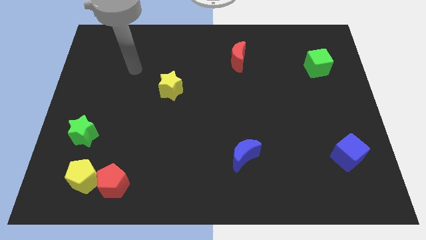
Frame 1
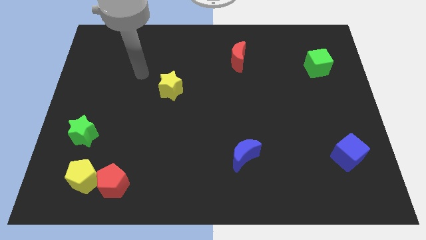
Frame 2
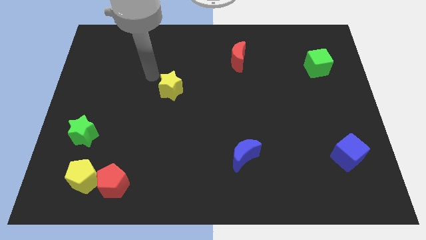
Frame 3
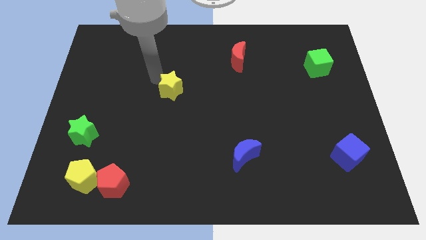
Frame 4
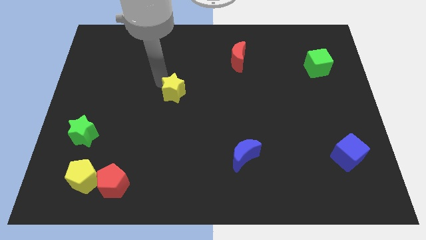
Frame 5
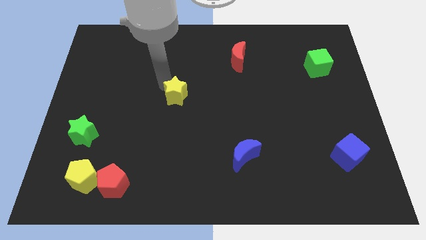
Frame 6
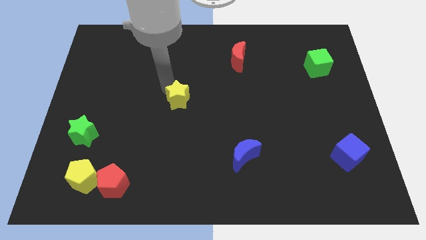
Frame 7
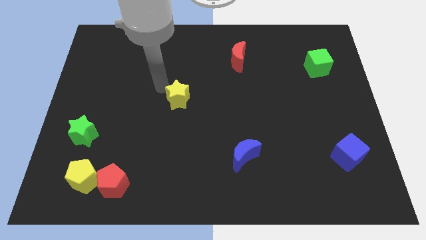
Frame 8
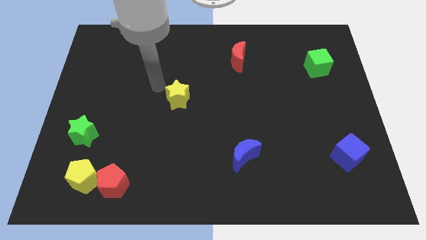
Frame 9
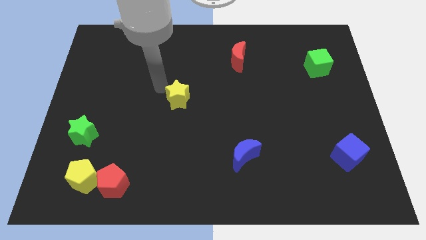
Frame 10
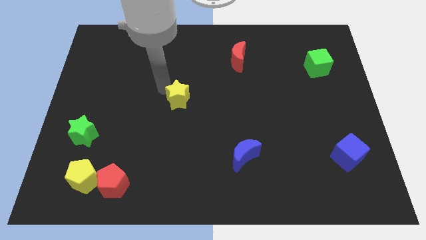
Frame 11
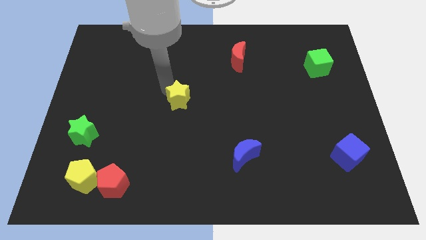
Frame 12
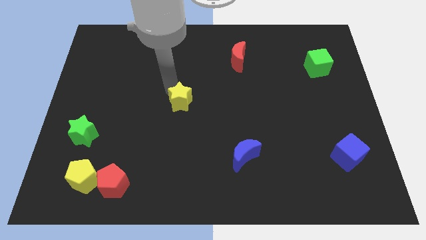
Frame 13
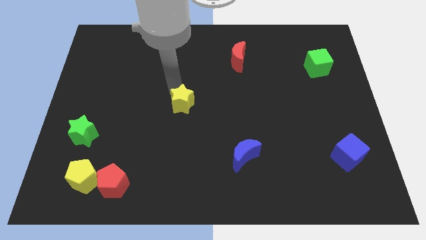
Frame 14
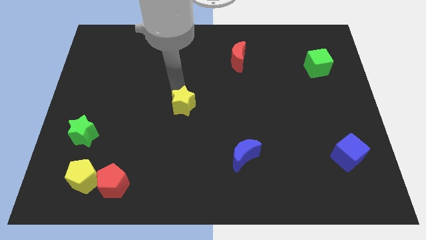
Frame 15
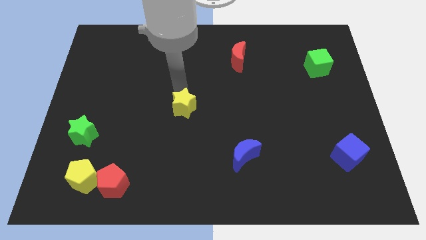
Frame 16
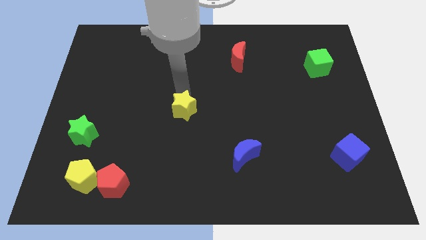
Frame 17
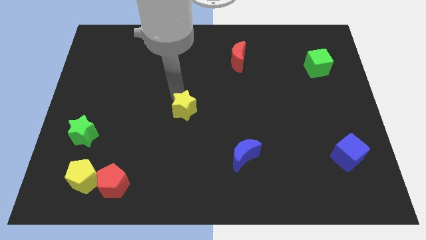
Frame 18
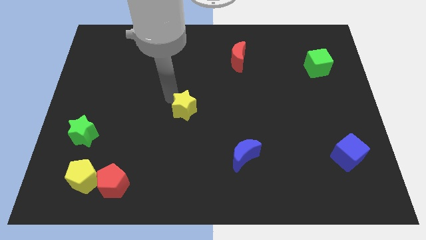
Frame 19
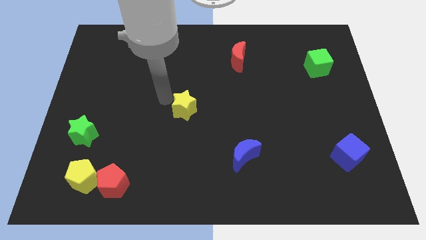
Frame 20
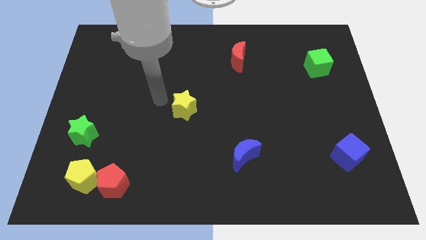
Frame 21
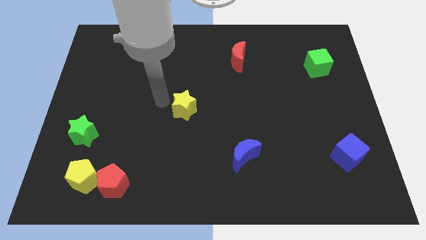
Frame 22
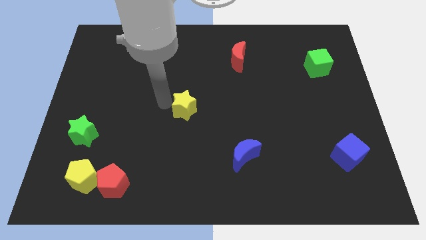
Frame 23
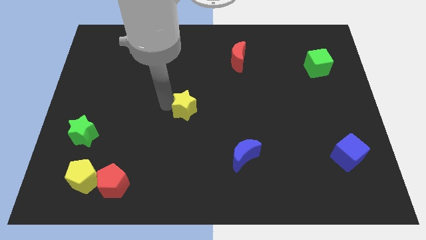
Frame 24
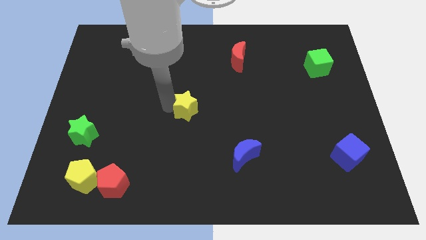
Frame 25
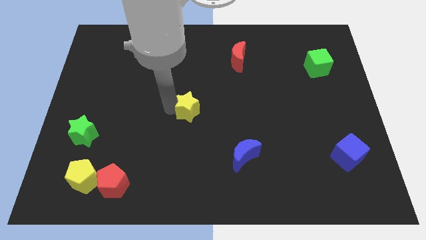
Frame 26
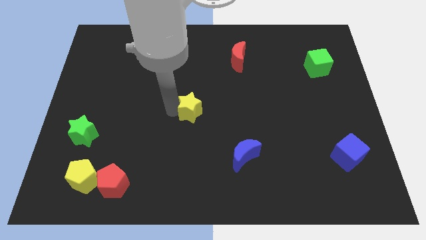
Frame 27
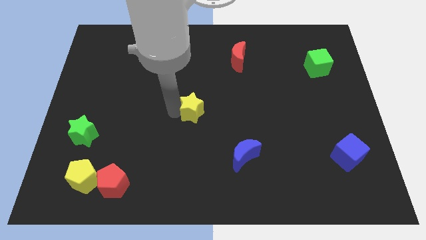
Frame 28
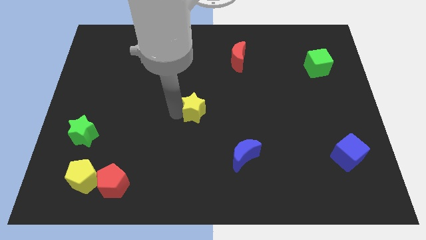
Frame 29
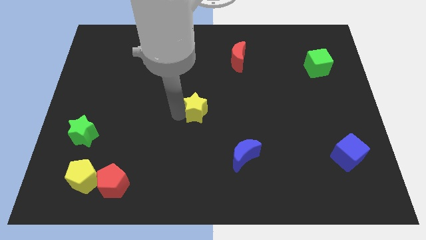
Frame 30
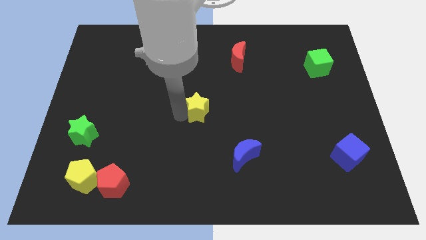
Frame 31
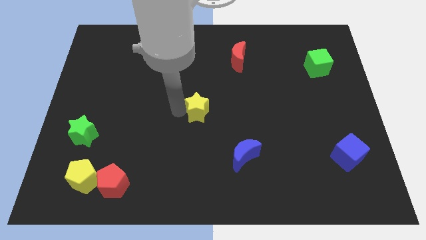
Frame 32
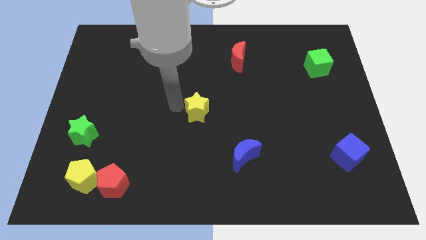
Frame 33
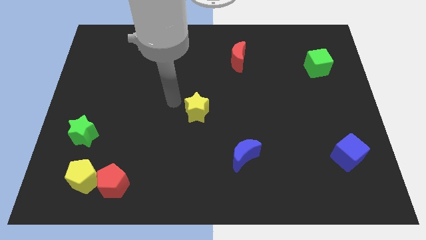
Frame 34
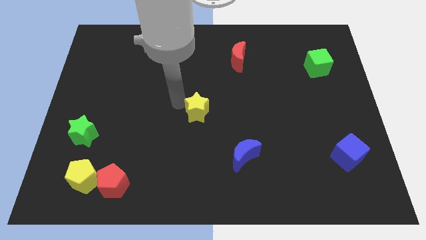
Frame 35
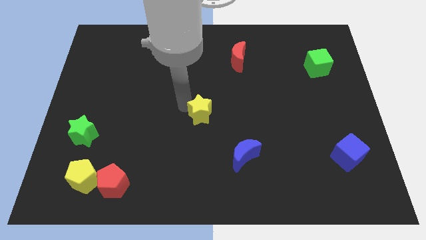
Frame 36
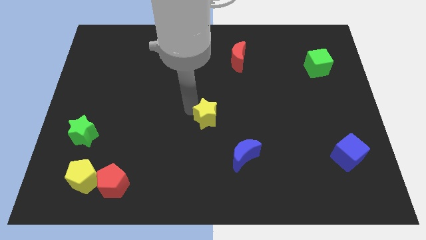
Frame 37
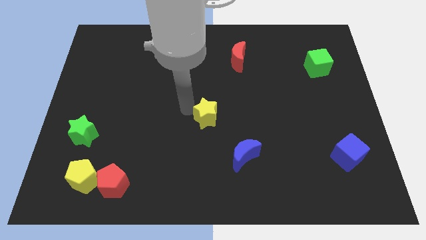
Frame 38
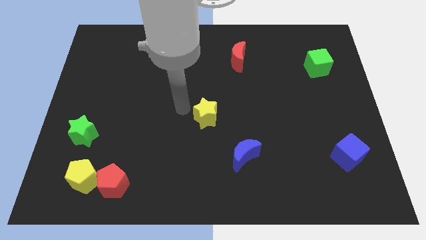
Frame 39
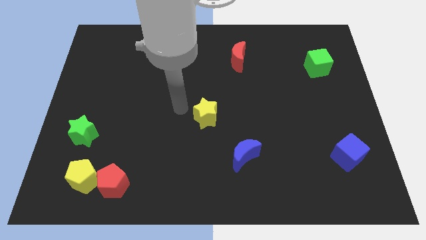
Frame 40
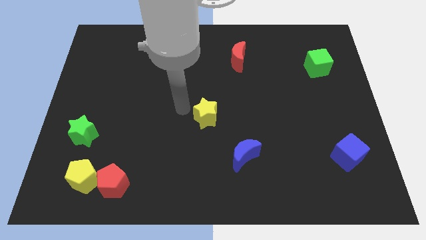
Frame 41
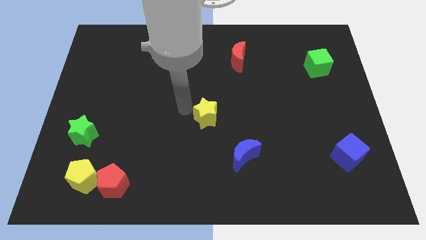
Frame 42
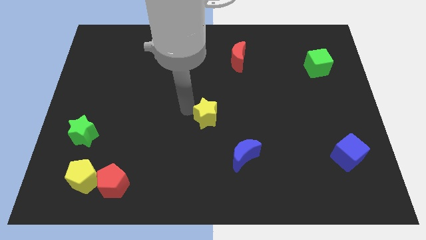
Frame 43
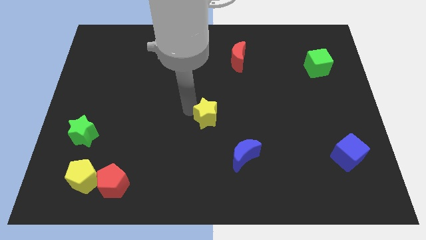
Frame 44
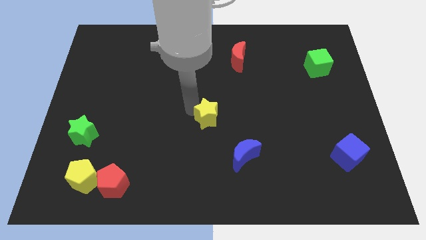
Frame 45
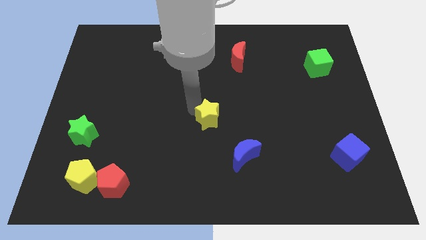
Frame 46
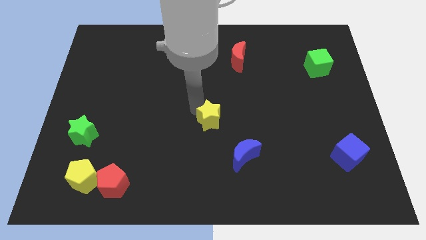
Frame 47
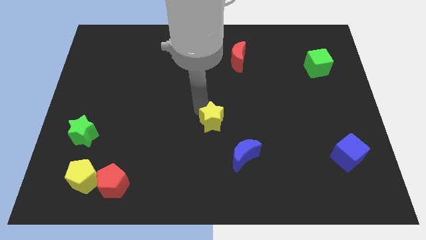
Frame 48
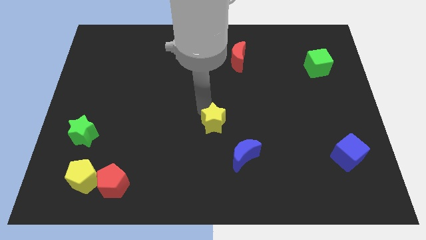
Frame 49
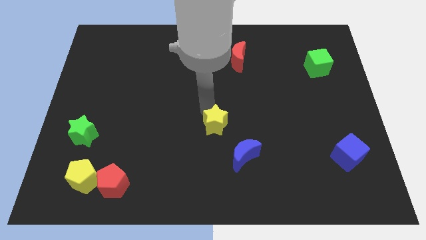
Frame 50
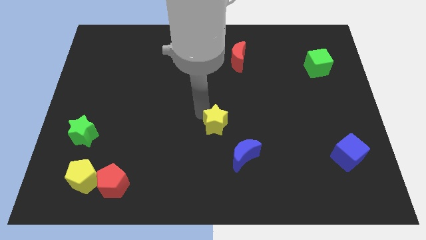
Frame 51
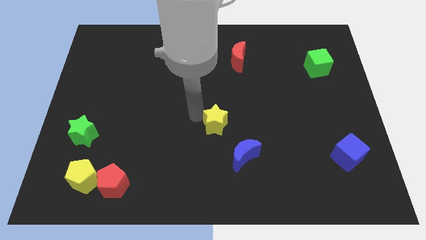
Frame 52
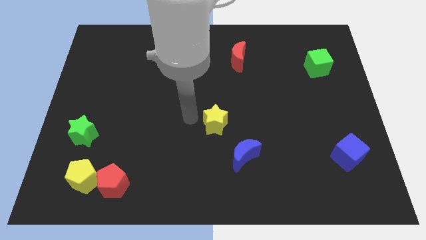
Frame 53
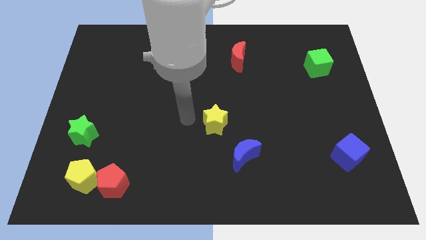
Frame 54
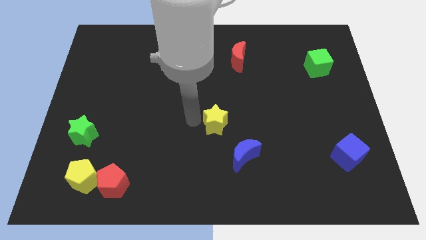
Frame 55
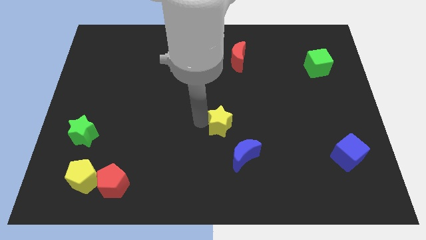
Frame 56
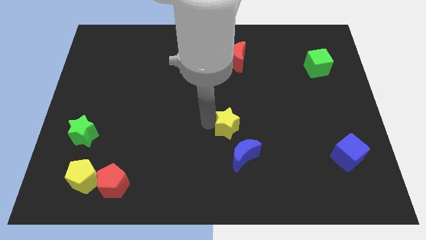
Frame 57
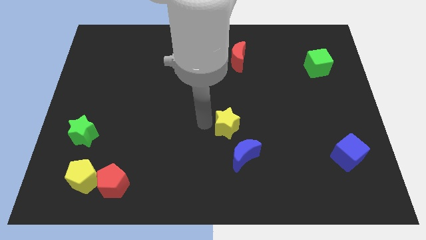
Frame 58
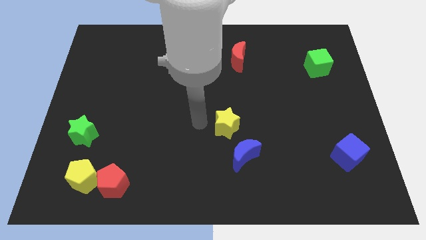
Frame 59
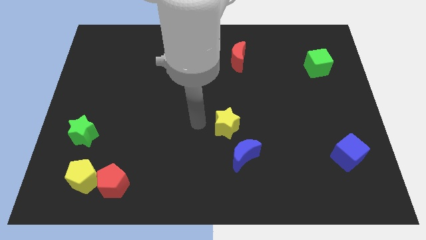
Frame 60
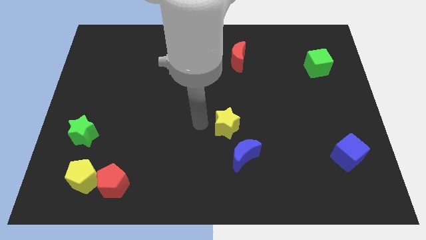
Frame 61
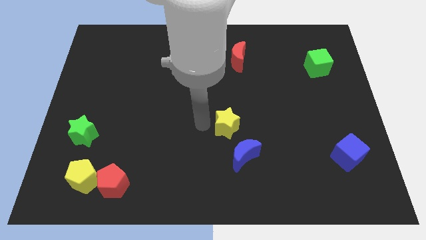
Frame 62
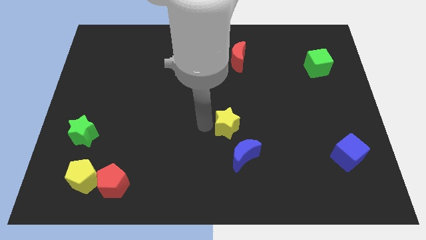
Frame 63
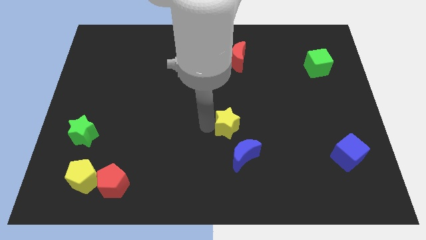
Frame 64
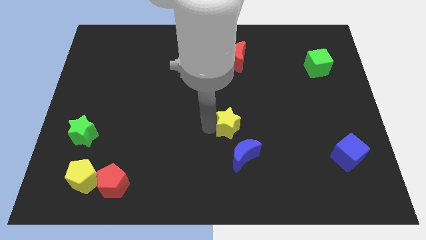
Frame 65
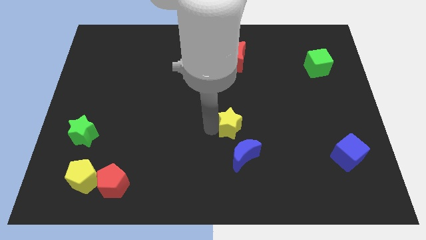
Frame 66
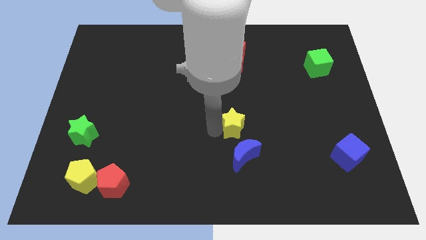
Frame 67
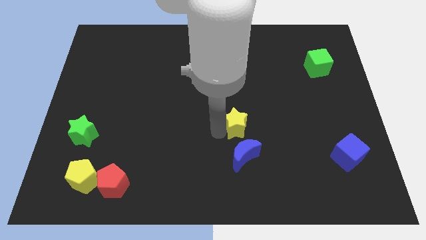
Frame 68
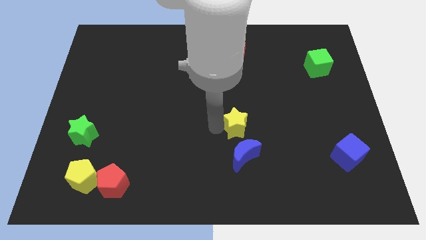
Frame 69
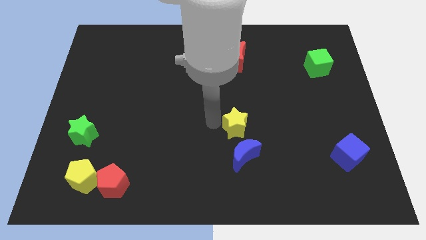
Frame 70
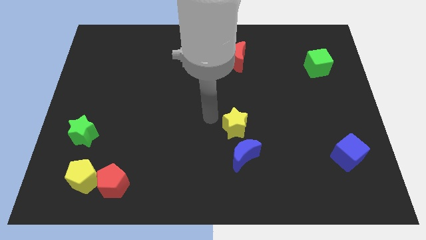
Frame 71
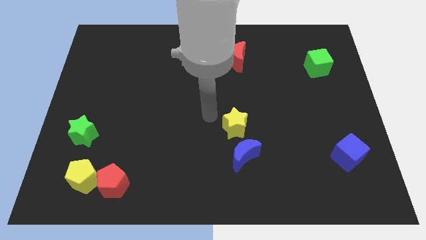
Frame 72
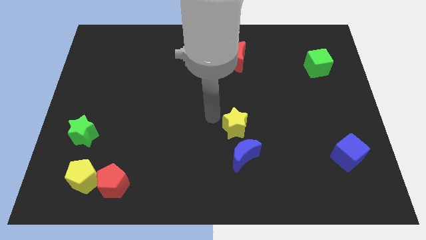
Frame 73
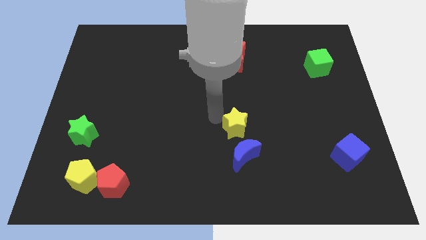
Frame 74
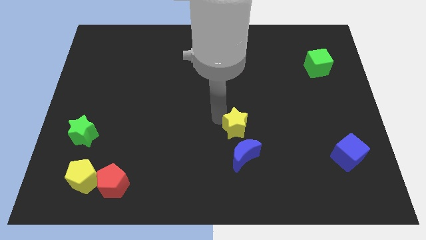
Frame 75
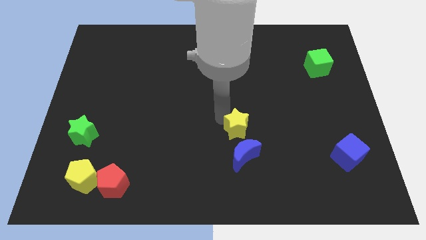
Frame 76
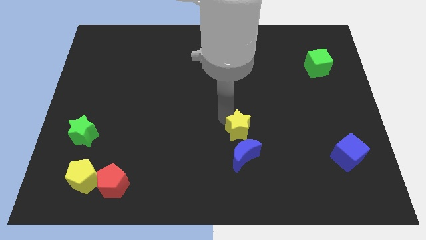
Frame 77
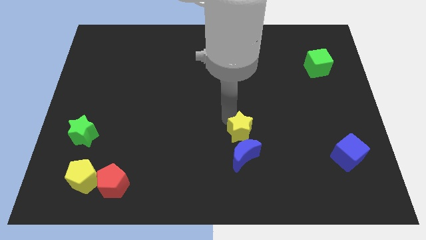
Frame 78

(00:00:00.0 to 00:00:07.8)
push the yellow star diagonally downwards and to the right
